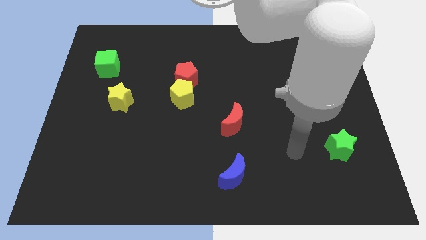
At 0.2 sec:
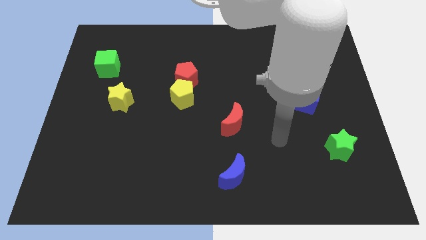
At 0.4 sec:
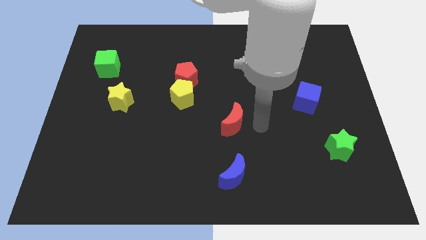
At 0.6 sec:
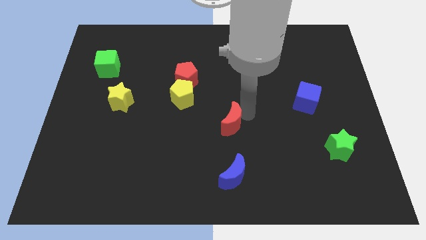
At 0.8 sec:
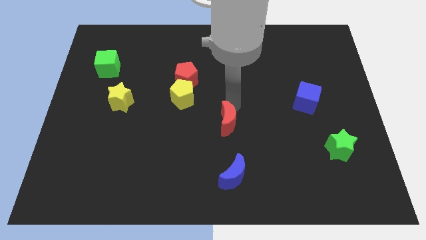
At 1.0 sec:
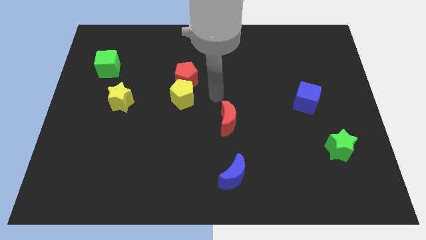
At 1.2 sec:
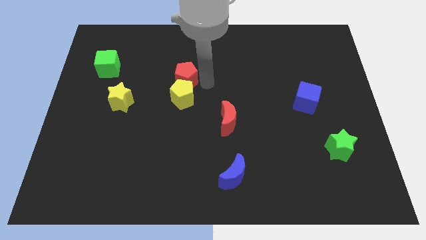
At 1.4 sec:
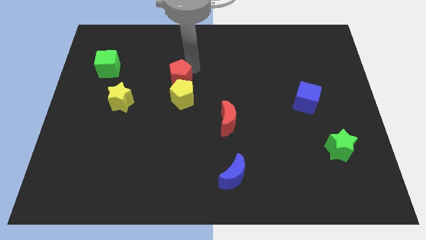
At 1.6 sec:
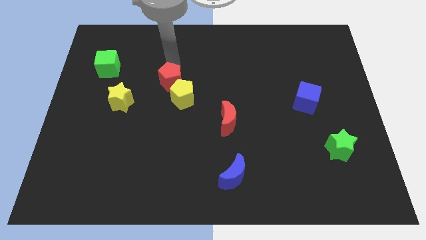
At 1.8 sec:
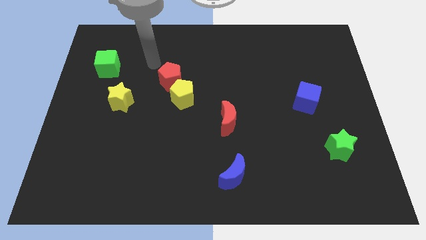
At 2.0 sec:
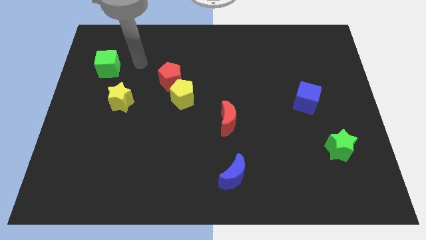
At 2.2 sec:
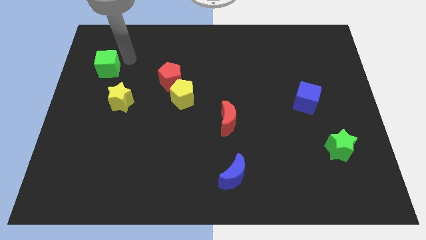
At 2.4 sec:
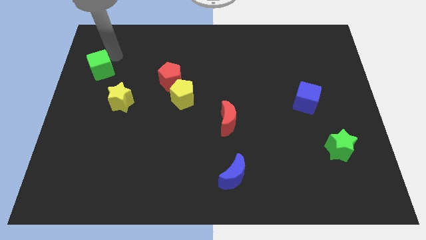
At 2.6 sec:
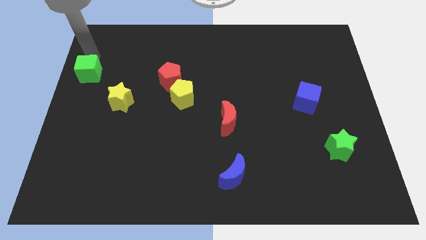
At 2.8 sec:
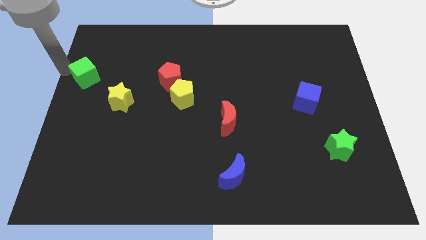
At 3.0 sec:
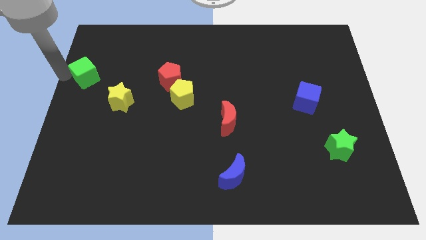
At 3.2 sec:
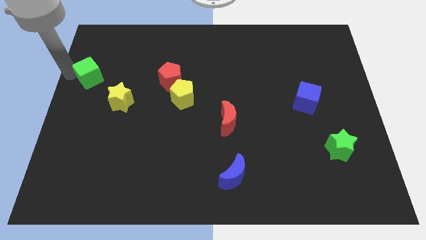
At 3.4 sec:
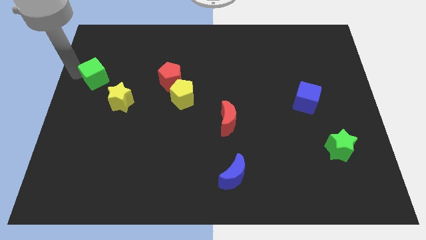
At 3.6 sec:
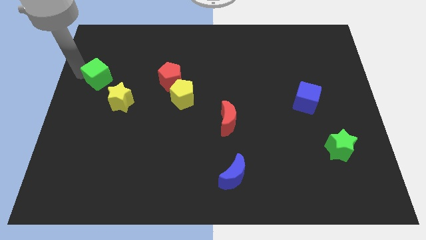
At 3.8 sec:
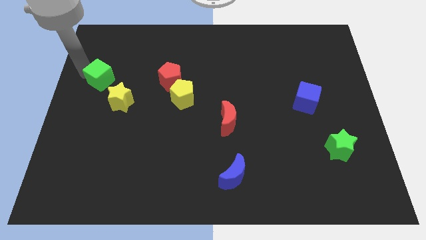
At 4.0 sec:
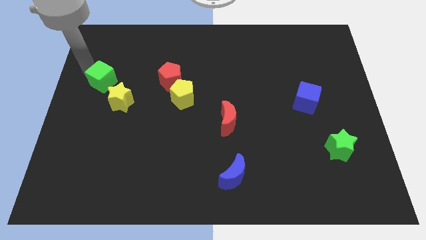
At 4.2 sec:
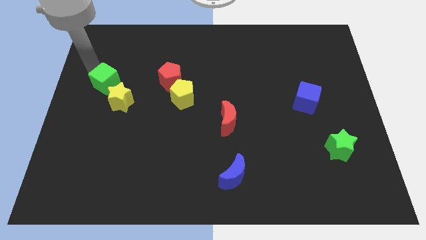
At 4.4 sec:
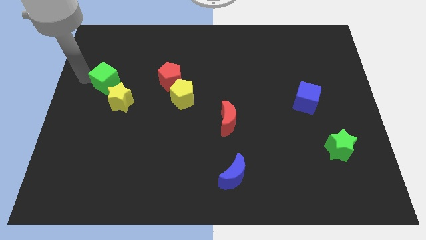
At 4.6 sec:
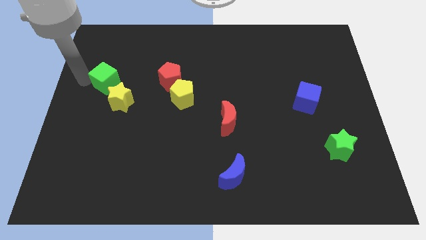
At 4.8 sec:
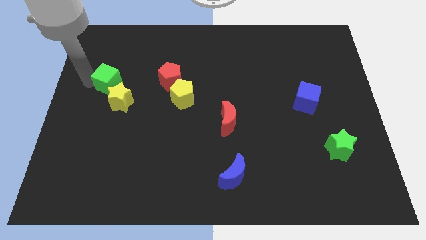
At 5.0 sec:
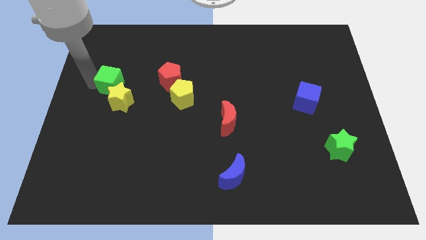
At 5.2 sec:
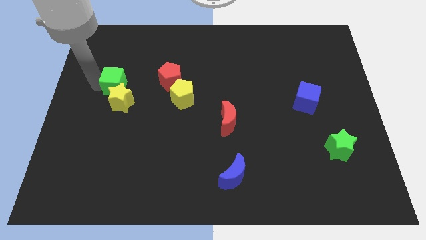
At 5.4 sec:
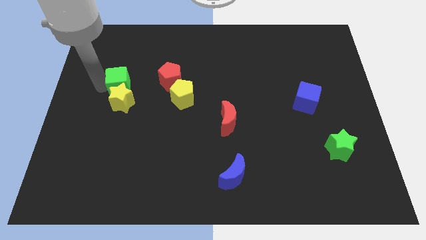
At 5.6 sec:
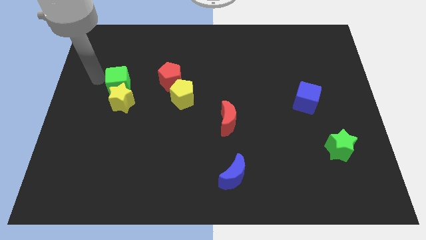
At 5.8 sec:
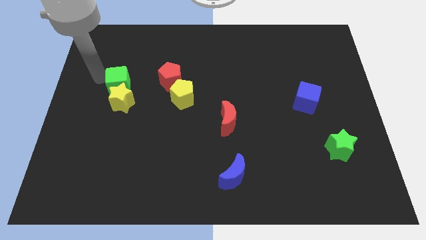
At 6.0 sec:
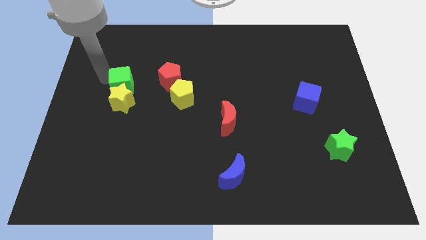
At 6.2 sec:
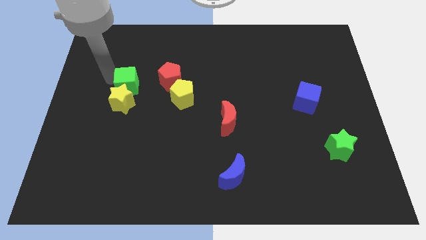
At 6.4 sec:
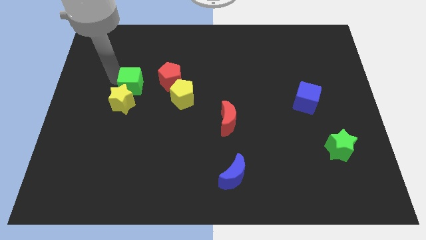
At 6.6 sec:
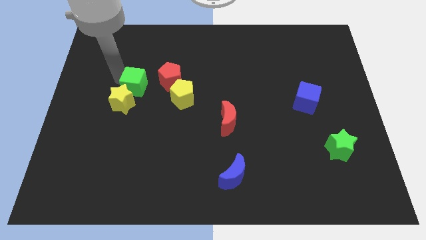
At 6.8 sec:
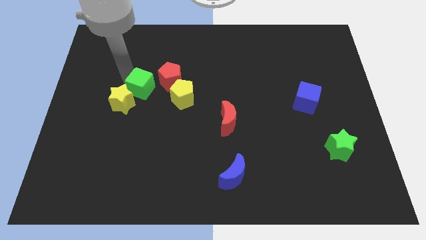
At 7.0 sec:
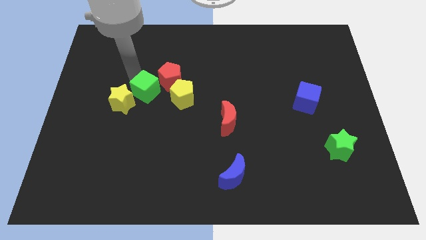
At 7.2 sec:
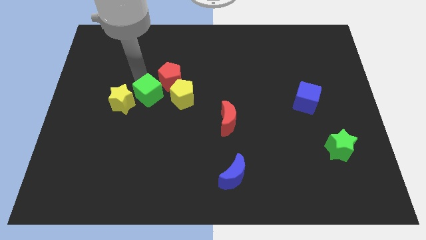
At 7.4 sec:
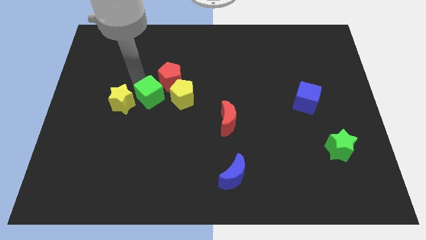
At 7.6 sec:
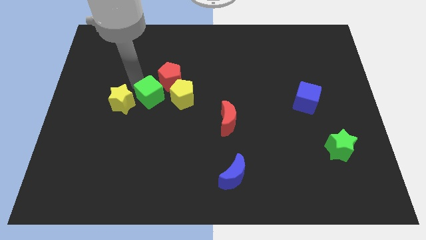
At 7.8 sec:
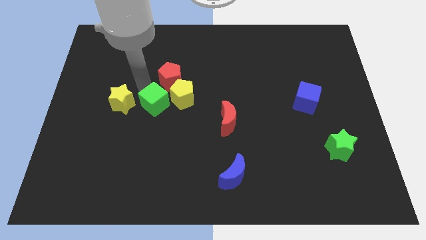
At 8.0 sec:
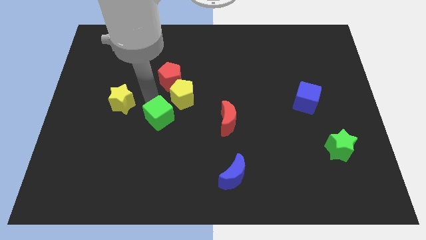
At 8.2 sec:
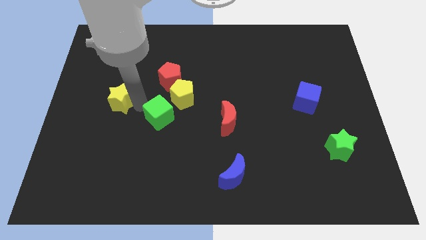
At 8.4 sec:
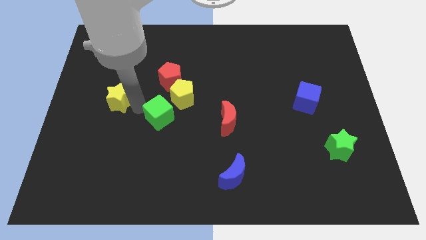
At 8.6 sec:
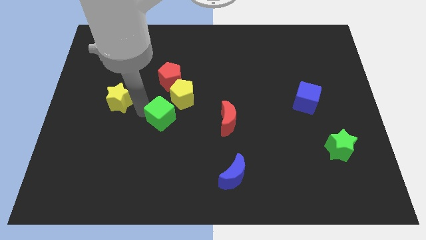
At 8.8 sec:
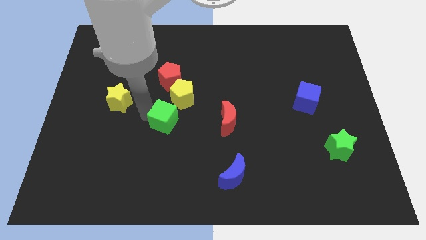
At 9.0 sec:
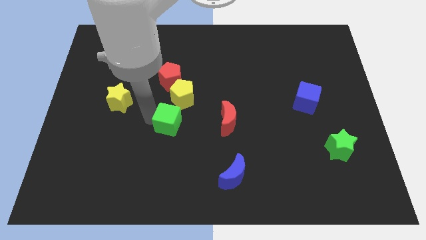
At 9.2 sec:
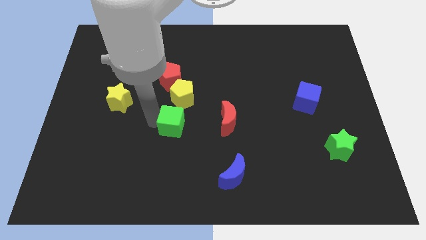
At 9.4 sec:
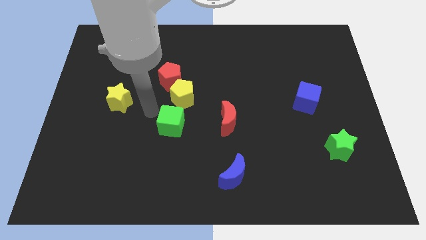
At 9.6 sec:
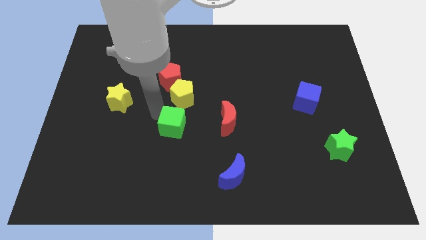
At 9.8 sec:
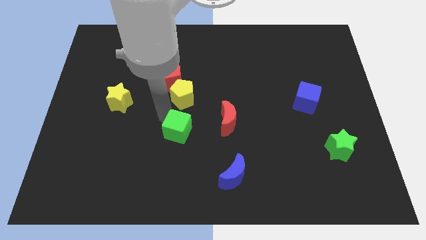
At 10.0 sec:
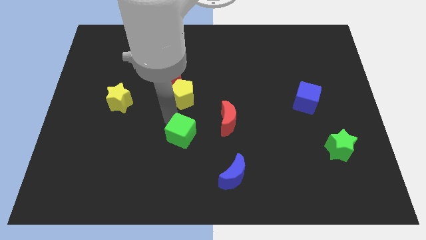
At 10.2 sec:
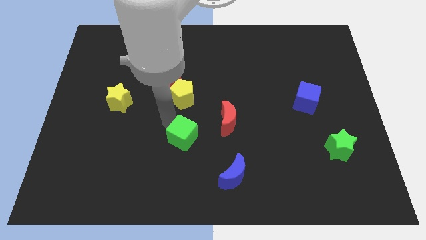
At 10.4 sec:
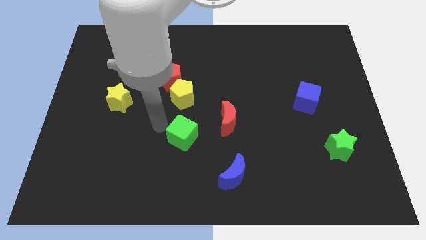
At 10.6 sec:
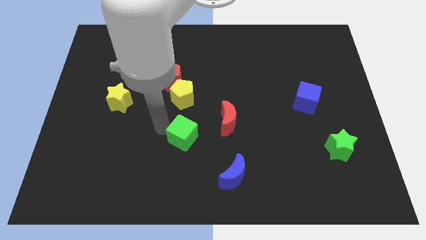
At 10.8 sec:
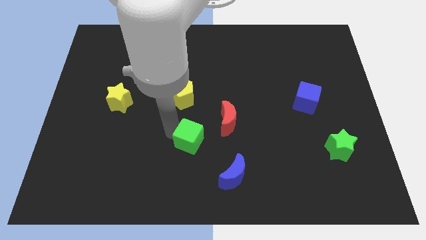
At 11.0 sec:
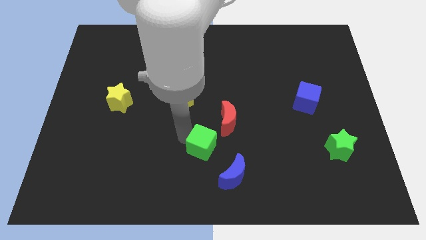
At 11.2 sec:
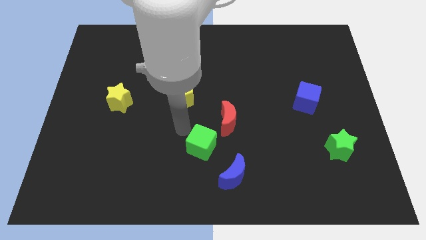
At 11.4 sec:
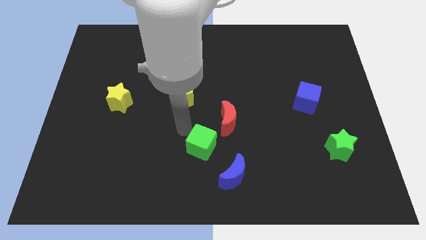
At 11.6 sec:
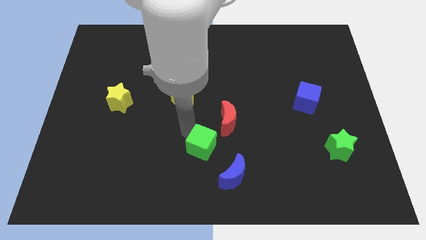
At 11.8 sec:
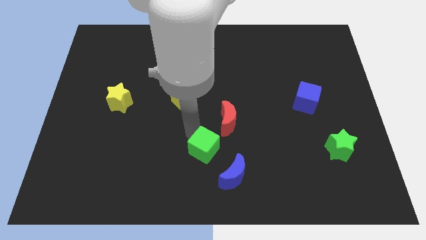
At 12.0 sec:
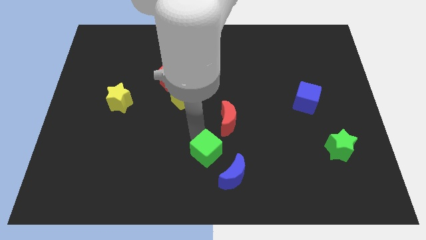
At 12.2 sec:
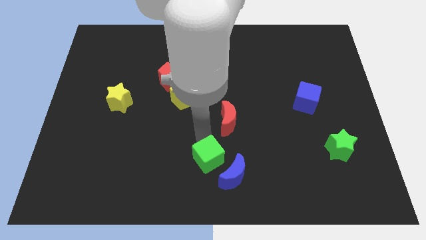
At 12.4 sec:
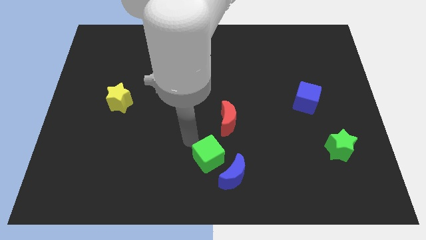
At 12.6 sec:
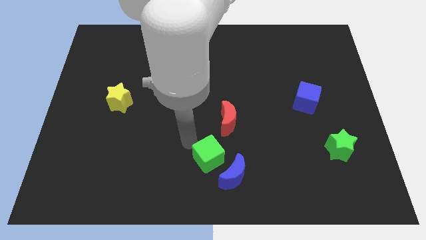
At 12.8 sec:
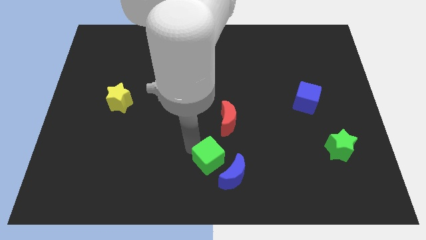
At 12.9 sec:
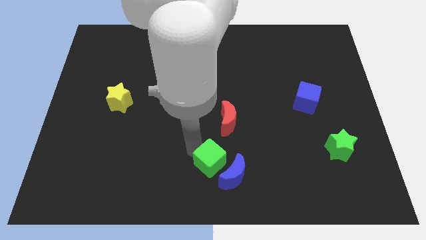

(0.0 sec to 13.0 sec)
push the green cube next to the blue moon

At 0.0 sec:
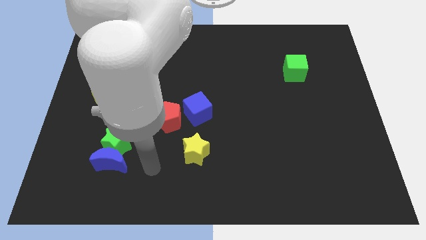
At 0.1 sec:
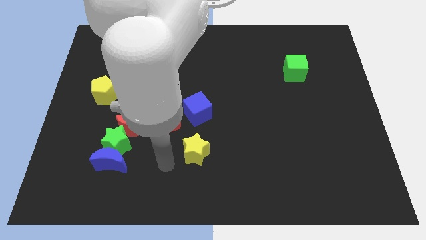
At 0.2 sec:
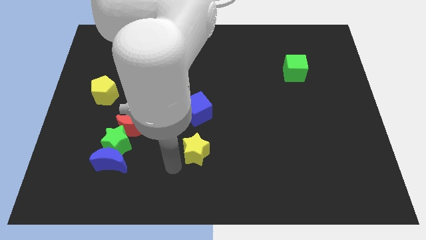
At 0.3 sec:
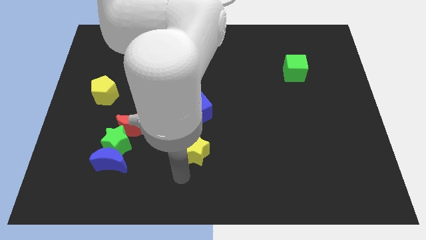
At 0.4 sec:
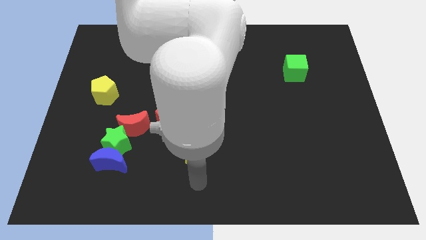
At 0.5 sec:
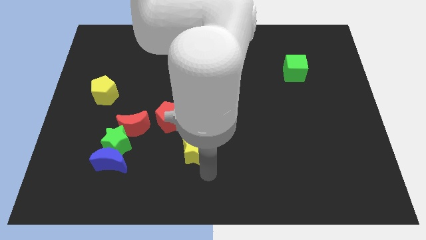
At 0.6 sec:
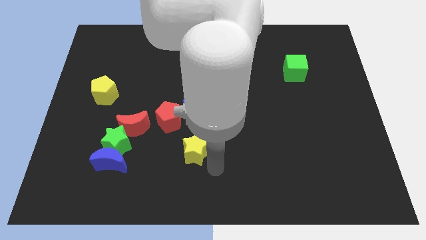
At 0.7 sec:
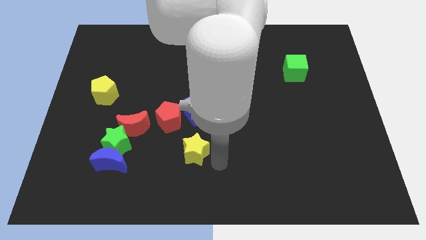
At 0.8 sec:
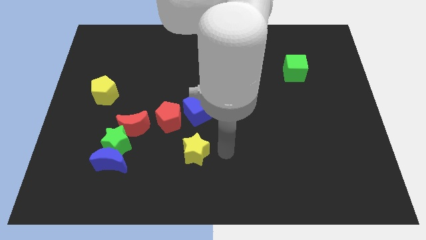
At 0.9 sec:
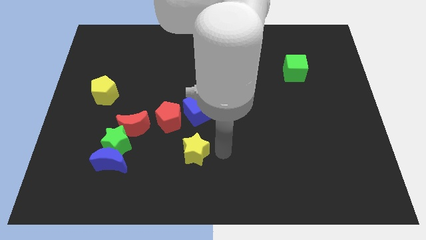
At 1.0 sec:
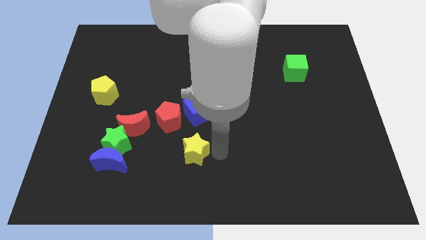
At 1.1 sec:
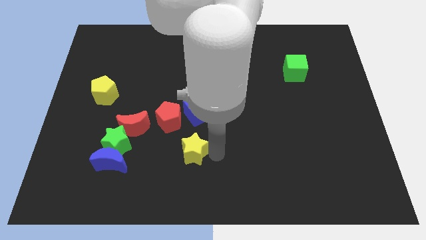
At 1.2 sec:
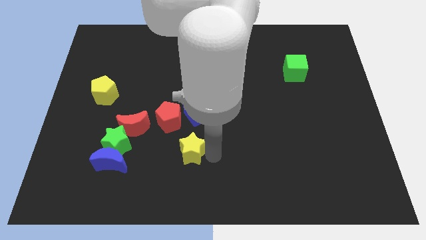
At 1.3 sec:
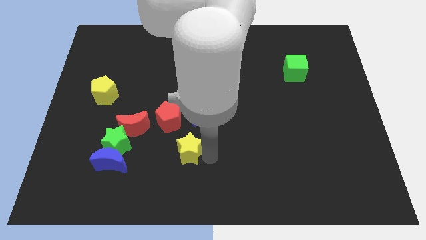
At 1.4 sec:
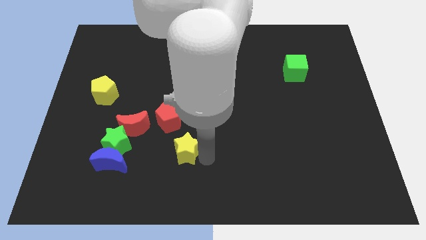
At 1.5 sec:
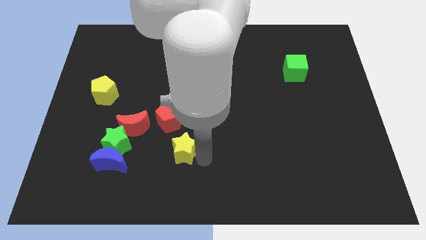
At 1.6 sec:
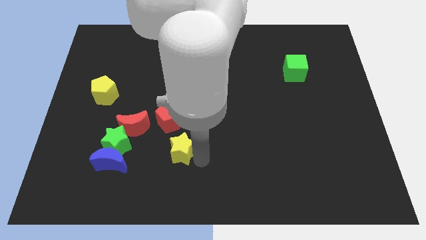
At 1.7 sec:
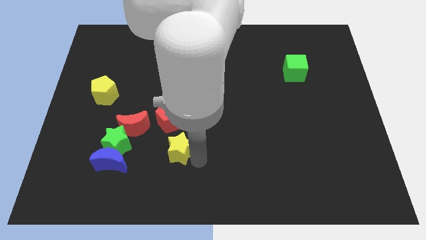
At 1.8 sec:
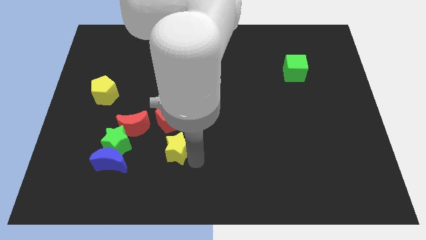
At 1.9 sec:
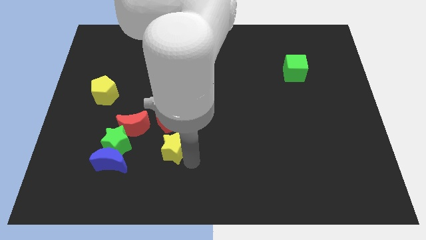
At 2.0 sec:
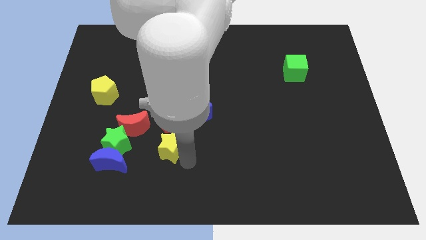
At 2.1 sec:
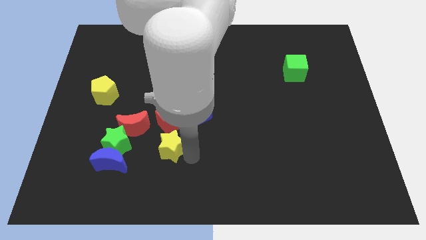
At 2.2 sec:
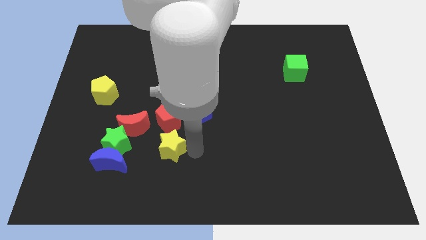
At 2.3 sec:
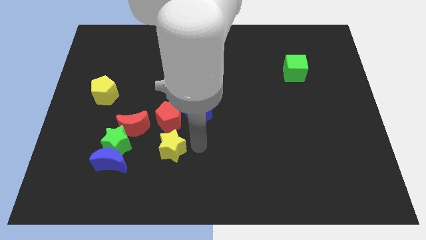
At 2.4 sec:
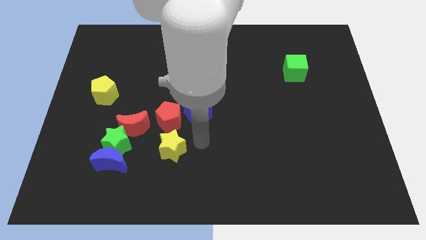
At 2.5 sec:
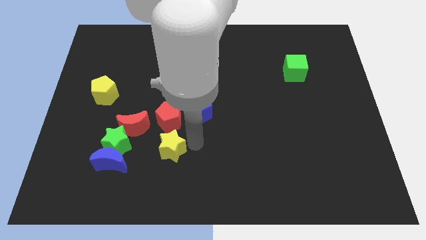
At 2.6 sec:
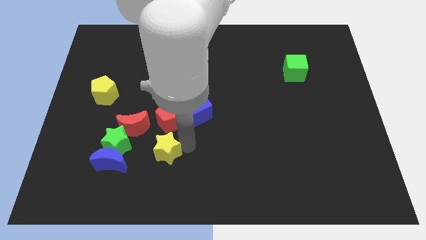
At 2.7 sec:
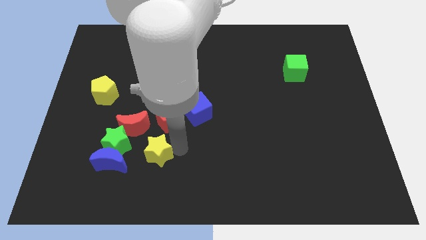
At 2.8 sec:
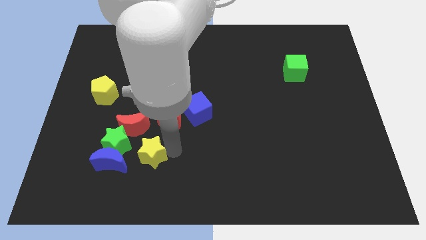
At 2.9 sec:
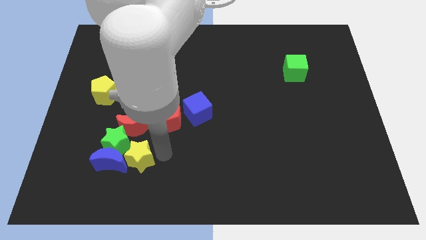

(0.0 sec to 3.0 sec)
move the yellow star towards the blue moon
